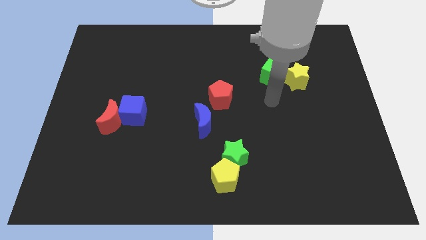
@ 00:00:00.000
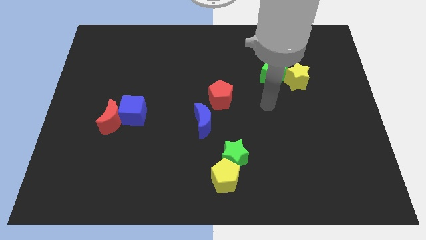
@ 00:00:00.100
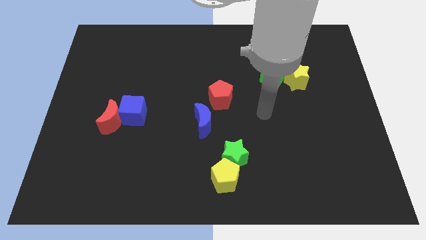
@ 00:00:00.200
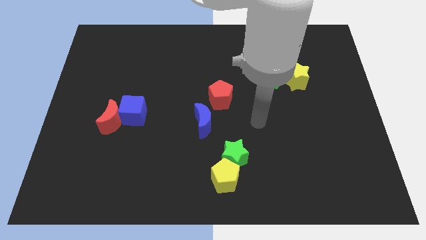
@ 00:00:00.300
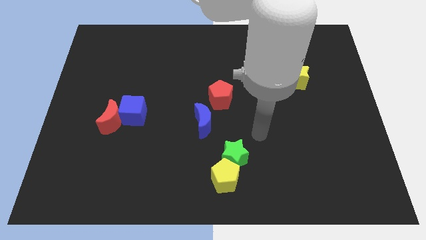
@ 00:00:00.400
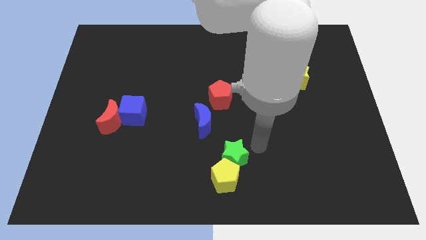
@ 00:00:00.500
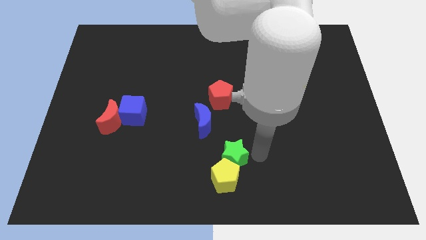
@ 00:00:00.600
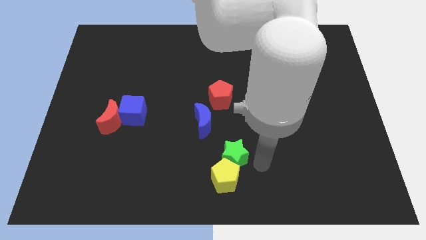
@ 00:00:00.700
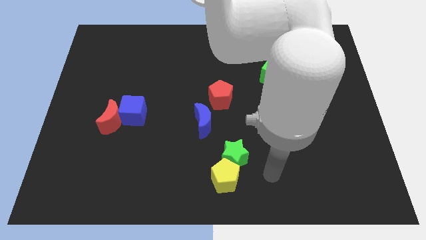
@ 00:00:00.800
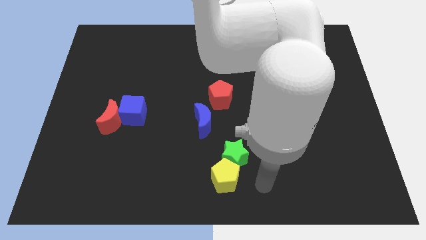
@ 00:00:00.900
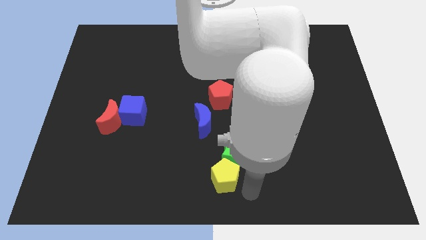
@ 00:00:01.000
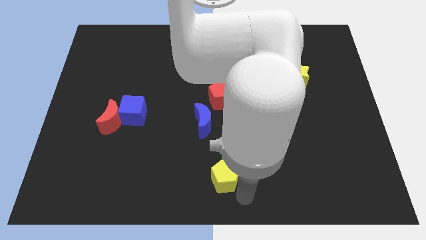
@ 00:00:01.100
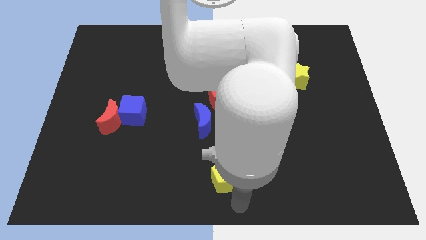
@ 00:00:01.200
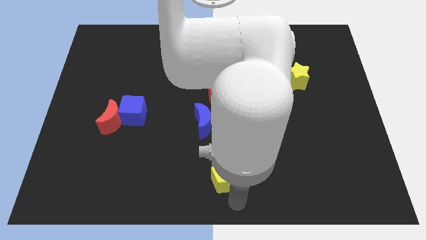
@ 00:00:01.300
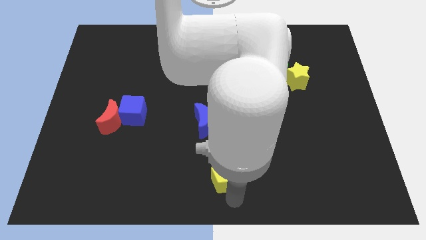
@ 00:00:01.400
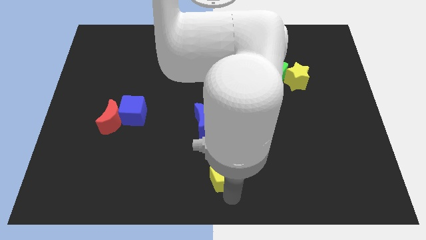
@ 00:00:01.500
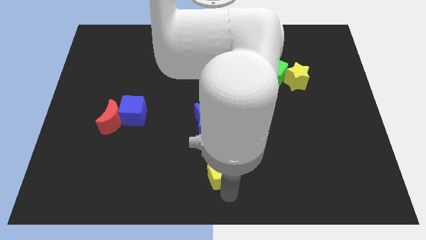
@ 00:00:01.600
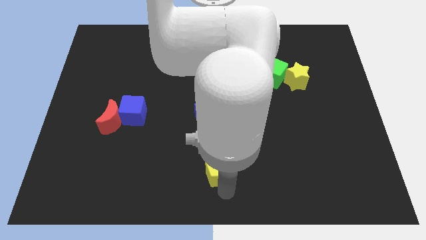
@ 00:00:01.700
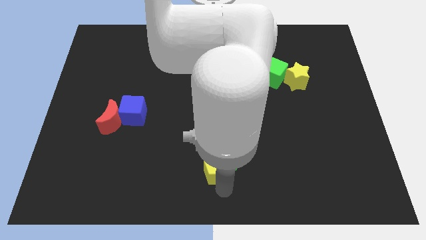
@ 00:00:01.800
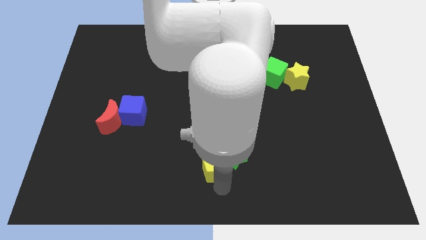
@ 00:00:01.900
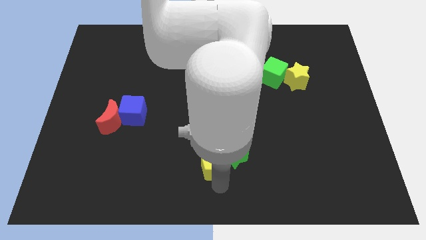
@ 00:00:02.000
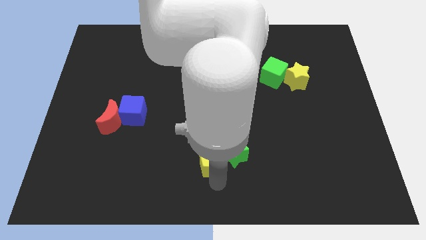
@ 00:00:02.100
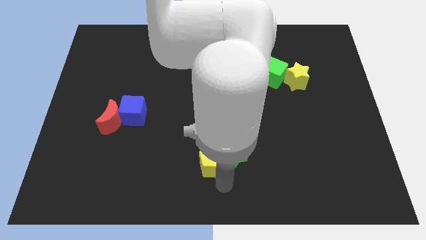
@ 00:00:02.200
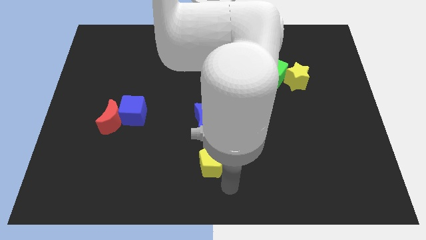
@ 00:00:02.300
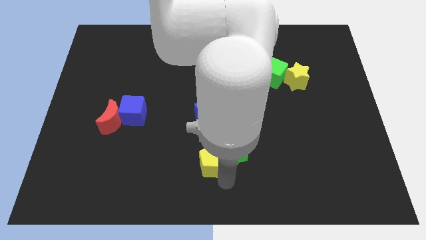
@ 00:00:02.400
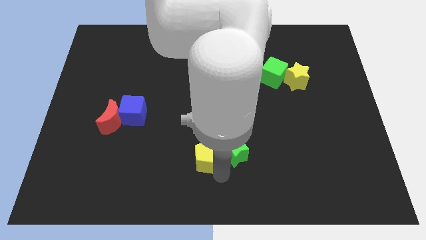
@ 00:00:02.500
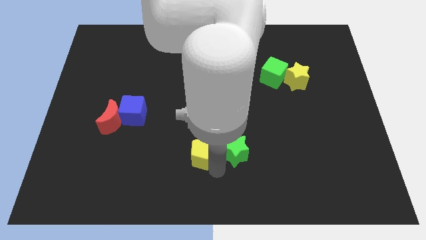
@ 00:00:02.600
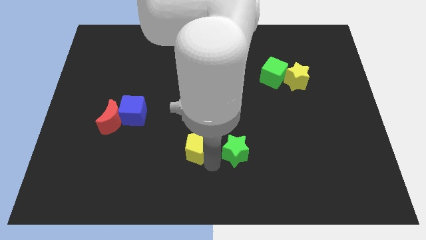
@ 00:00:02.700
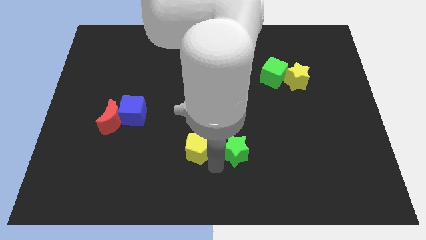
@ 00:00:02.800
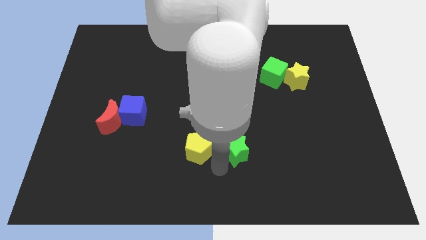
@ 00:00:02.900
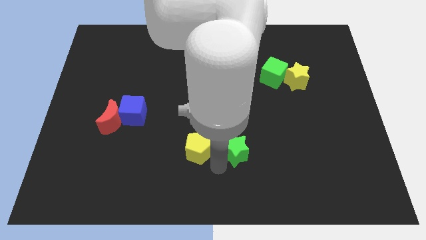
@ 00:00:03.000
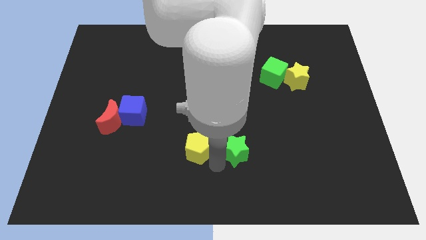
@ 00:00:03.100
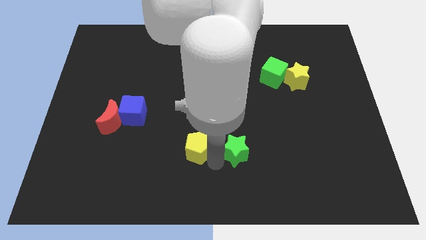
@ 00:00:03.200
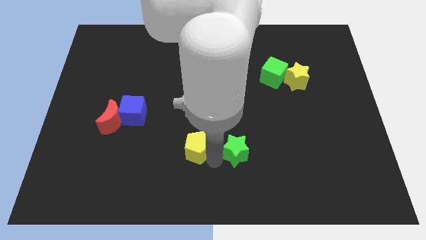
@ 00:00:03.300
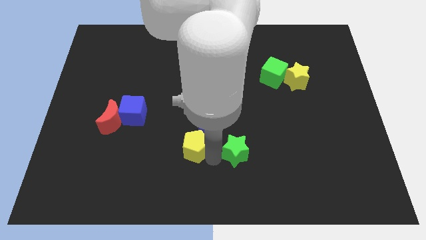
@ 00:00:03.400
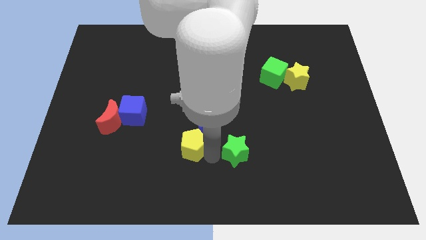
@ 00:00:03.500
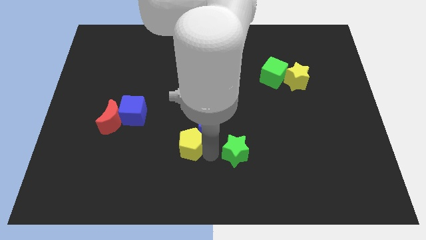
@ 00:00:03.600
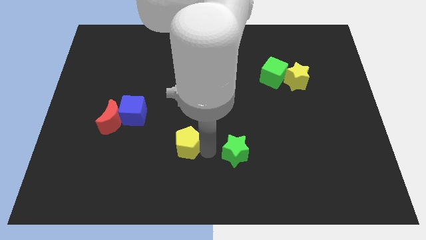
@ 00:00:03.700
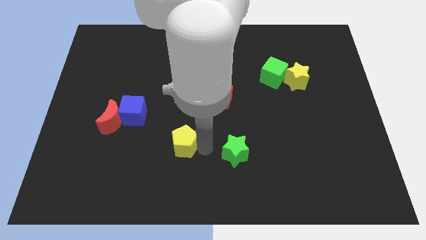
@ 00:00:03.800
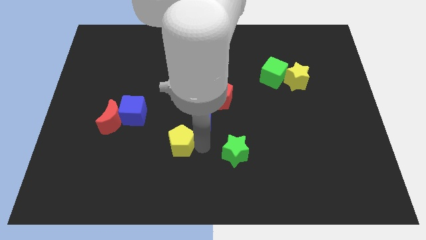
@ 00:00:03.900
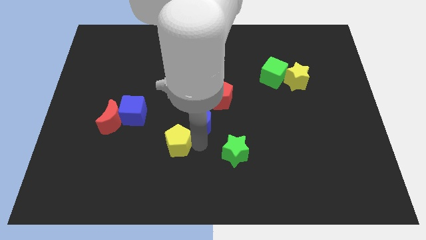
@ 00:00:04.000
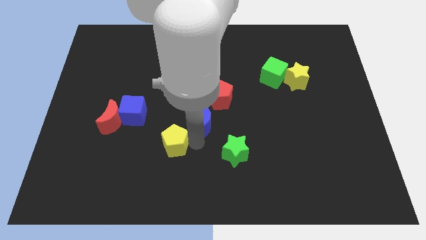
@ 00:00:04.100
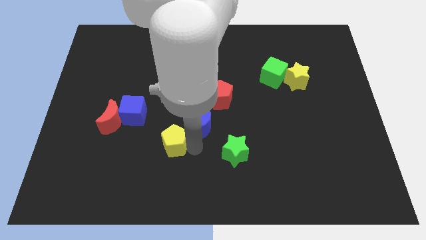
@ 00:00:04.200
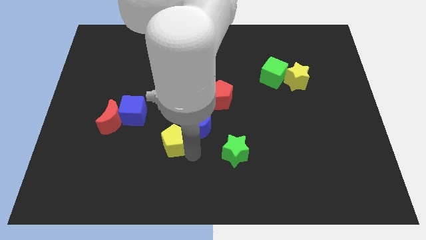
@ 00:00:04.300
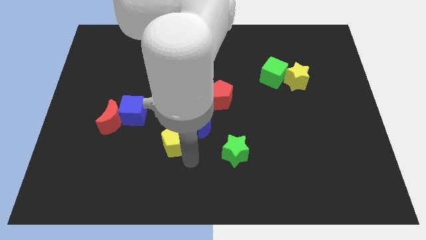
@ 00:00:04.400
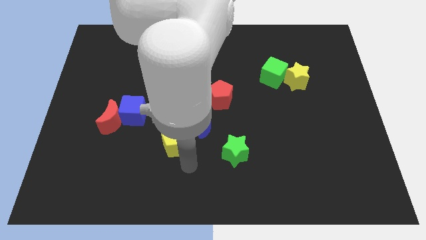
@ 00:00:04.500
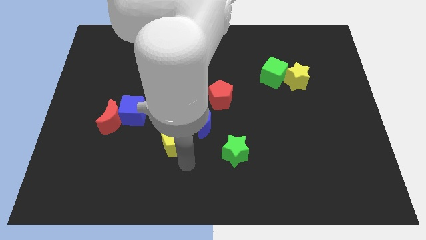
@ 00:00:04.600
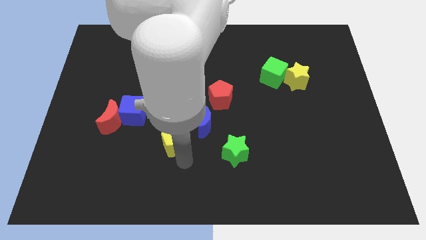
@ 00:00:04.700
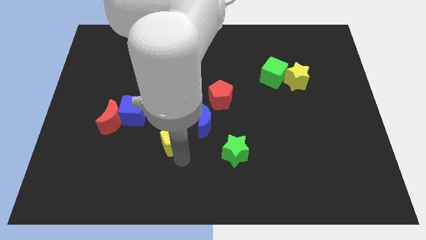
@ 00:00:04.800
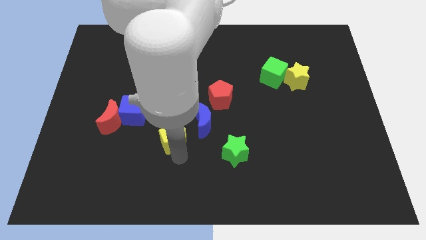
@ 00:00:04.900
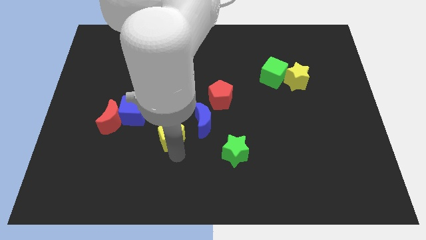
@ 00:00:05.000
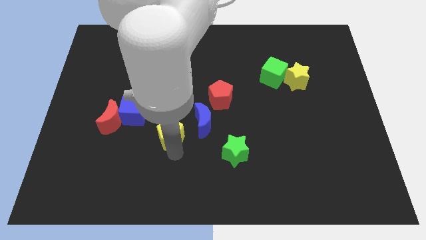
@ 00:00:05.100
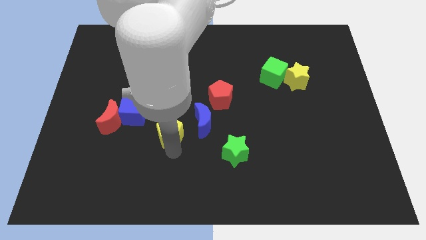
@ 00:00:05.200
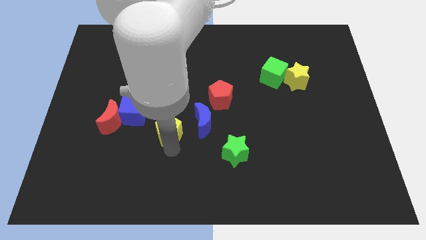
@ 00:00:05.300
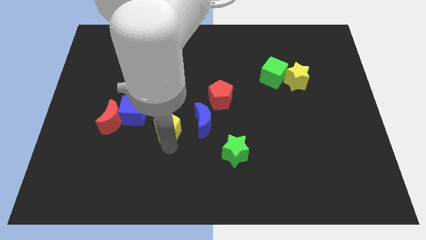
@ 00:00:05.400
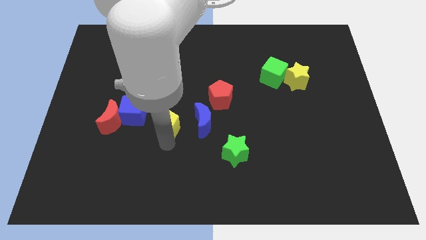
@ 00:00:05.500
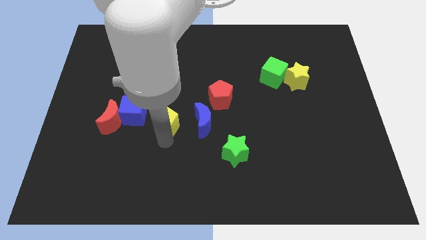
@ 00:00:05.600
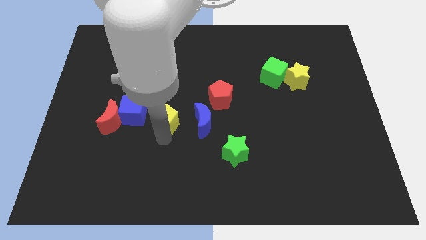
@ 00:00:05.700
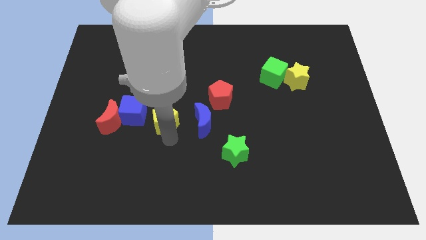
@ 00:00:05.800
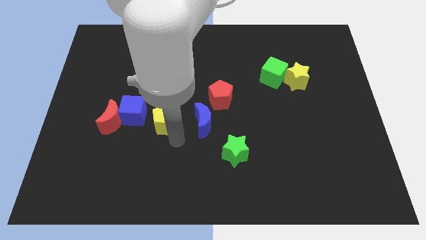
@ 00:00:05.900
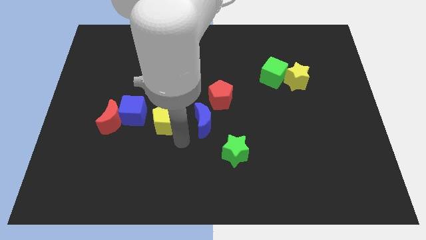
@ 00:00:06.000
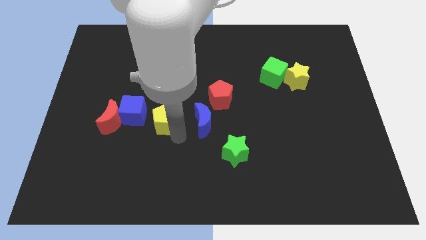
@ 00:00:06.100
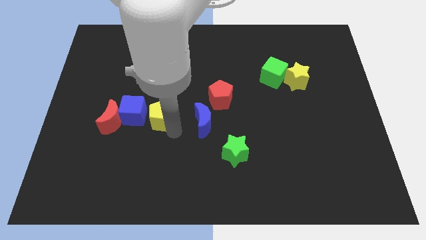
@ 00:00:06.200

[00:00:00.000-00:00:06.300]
slide the yellow pentagon upwards and left

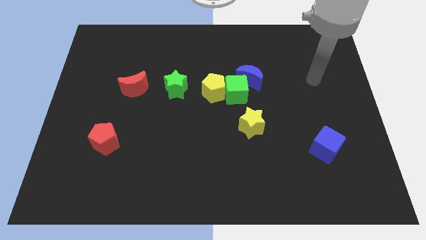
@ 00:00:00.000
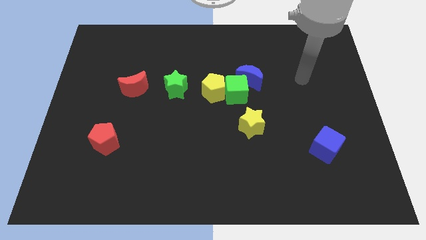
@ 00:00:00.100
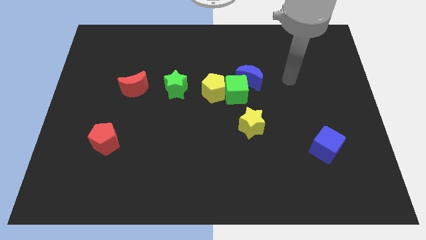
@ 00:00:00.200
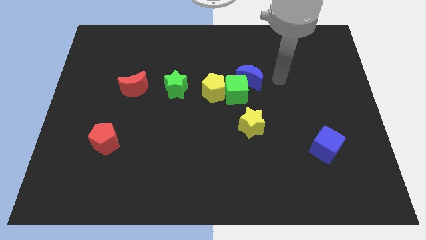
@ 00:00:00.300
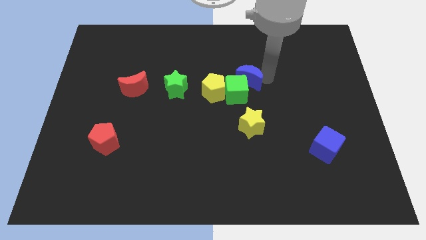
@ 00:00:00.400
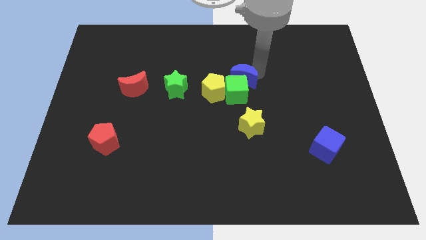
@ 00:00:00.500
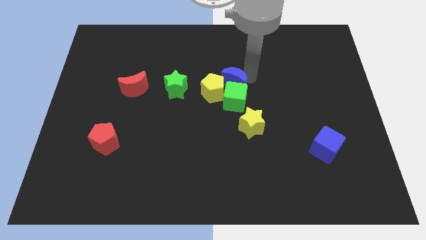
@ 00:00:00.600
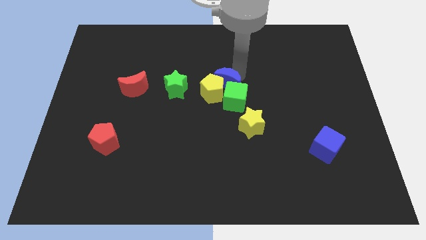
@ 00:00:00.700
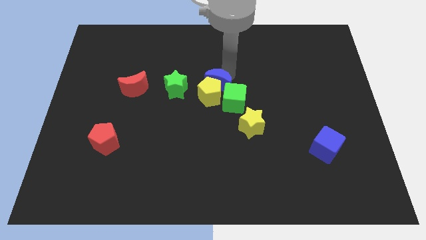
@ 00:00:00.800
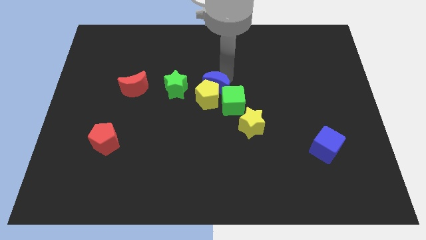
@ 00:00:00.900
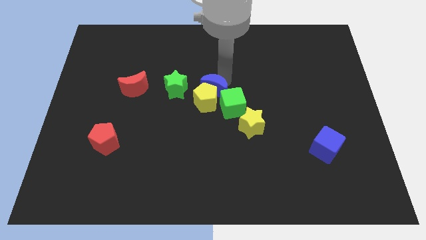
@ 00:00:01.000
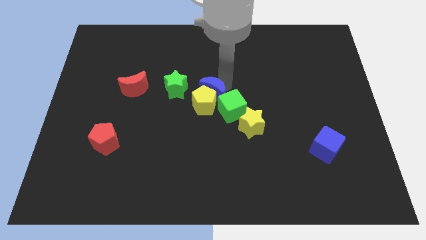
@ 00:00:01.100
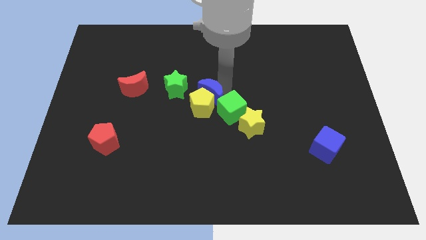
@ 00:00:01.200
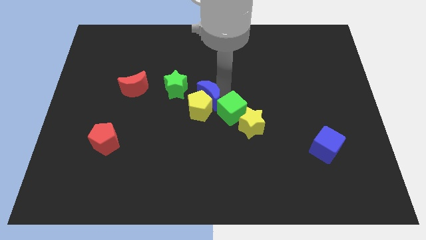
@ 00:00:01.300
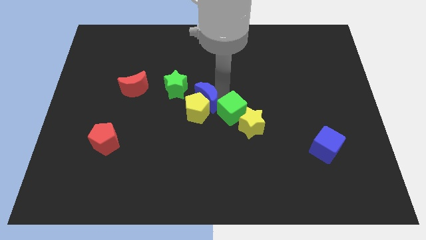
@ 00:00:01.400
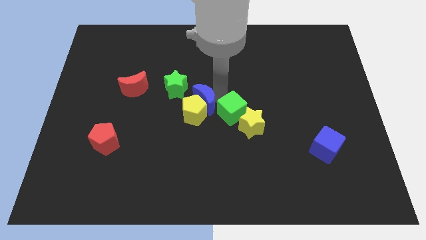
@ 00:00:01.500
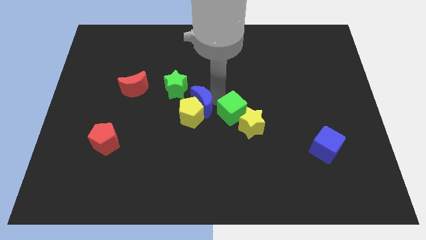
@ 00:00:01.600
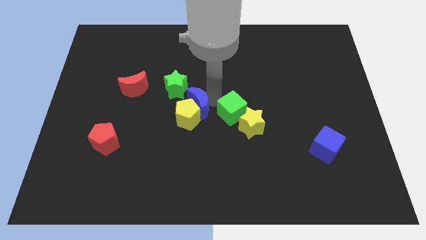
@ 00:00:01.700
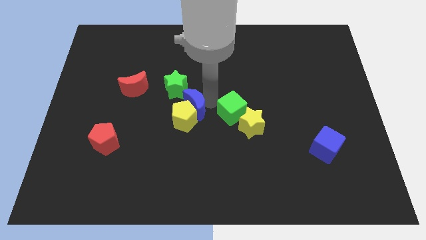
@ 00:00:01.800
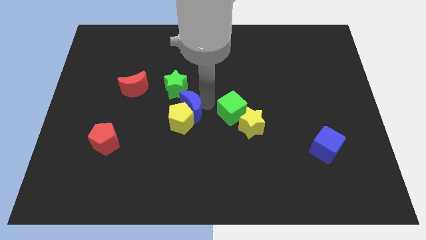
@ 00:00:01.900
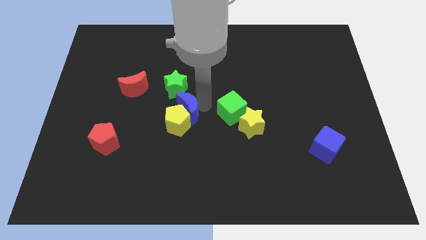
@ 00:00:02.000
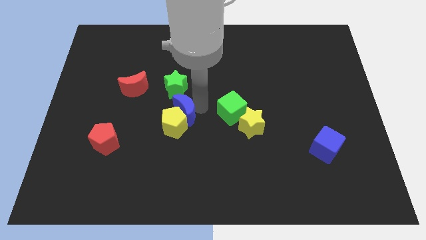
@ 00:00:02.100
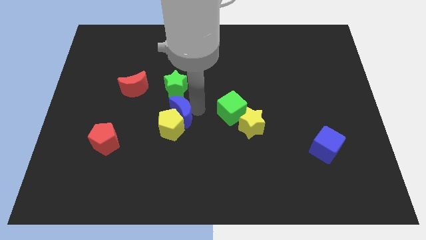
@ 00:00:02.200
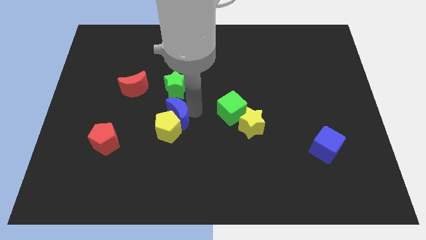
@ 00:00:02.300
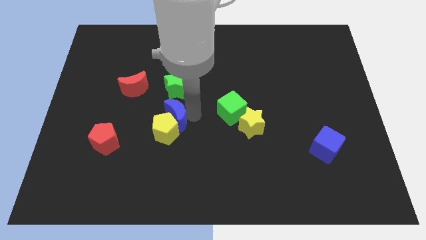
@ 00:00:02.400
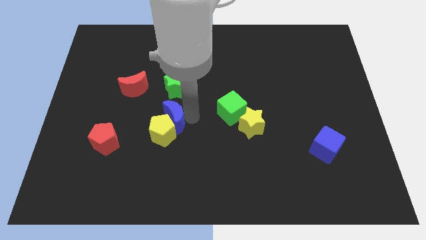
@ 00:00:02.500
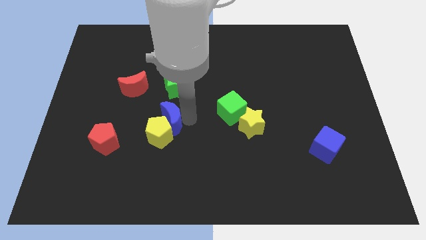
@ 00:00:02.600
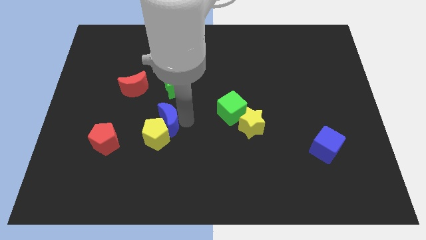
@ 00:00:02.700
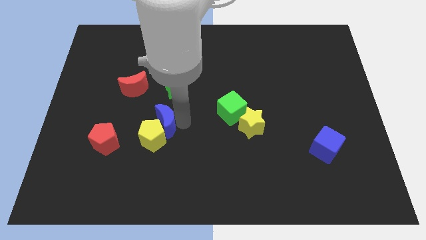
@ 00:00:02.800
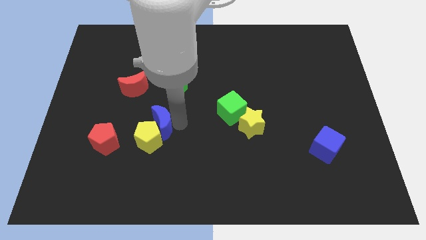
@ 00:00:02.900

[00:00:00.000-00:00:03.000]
move the yellow pentagon down and left diagonally
